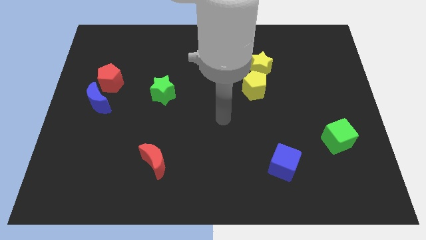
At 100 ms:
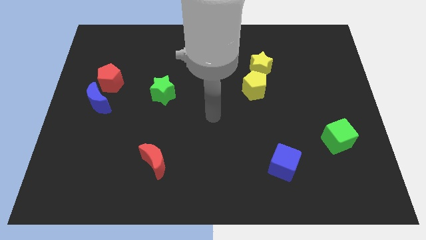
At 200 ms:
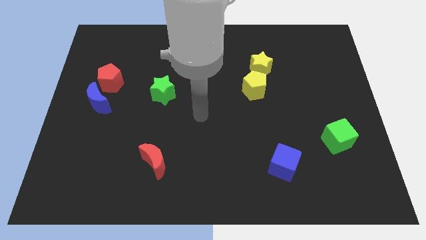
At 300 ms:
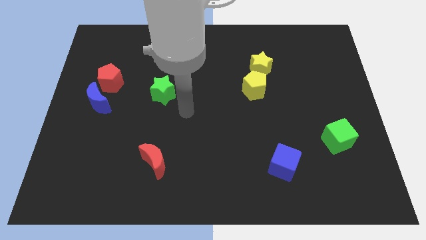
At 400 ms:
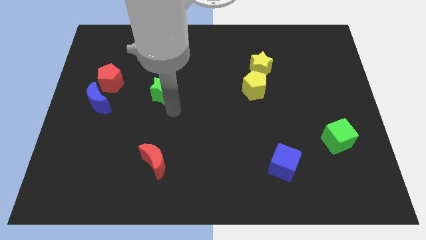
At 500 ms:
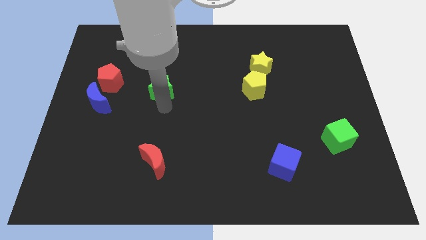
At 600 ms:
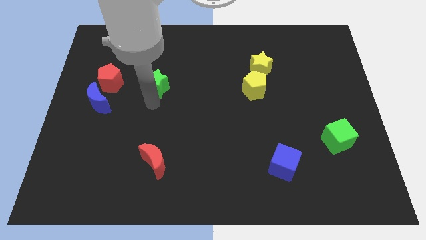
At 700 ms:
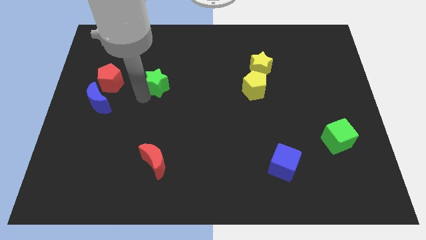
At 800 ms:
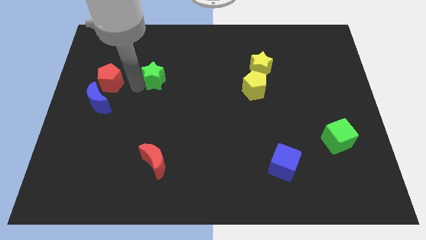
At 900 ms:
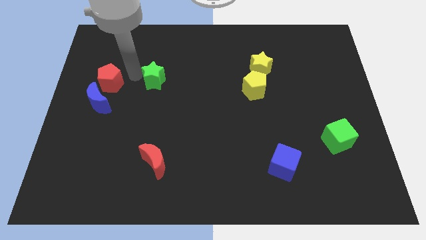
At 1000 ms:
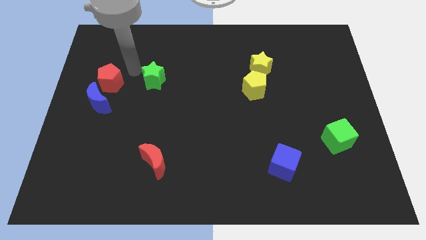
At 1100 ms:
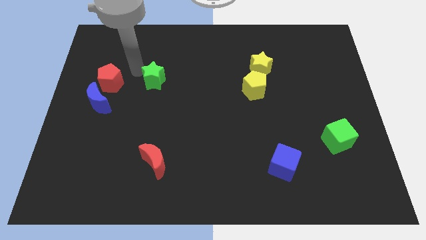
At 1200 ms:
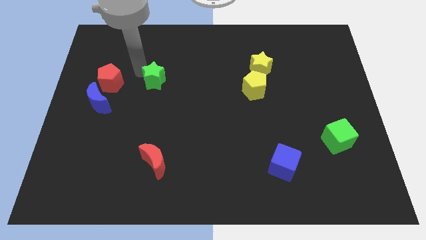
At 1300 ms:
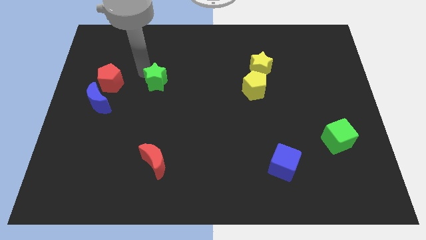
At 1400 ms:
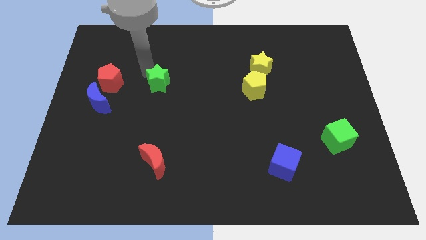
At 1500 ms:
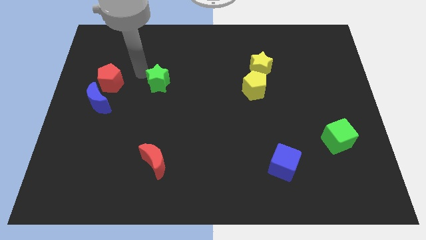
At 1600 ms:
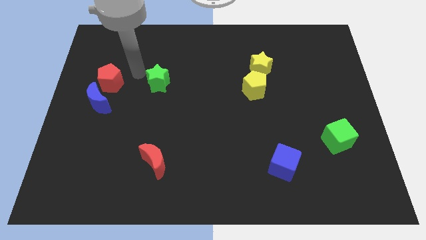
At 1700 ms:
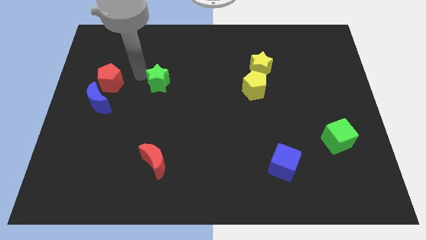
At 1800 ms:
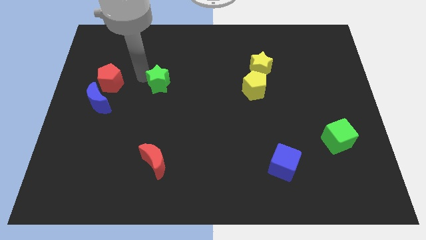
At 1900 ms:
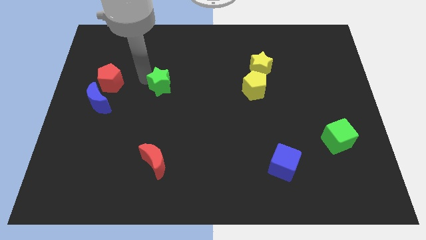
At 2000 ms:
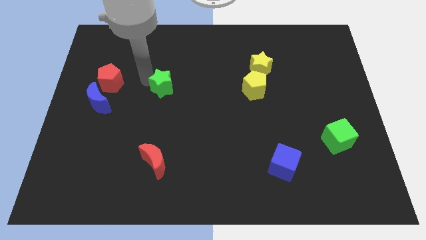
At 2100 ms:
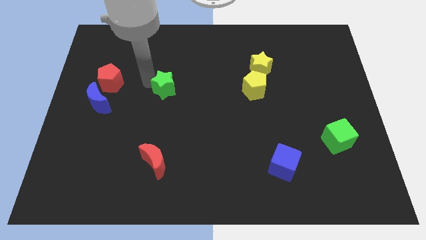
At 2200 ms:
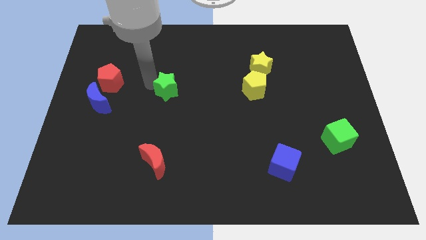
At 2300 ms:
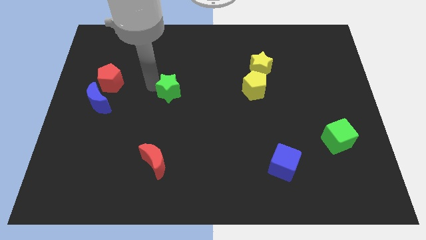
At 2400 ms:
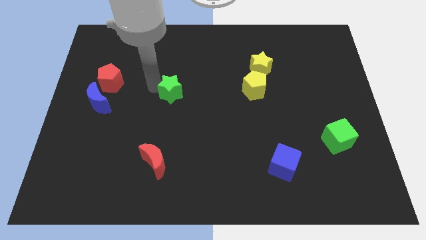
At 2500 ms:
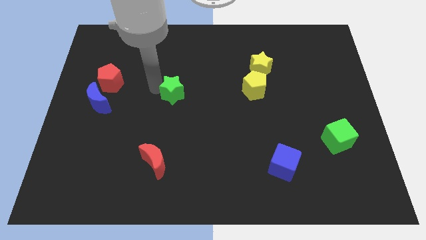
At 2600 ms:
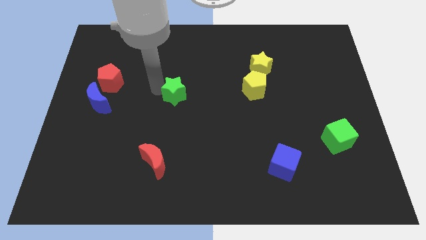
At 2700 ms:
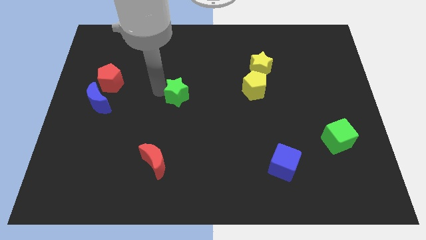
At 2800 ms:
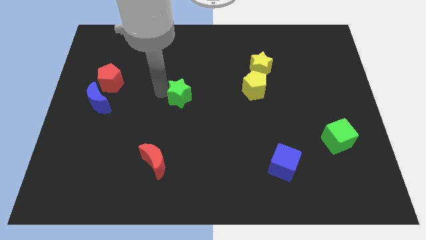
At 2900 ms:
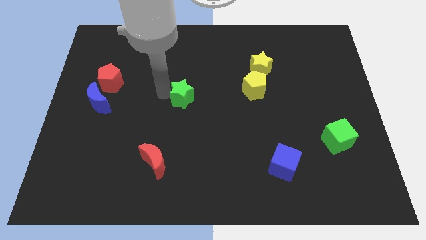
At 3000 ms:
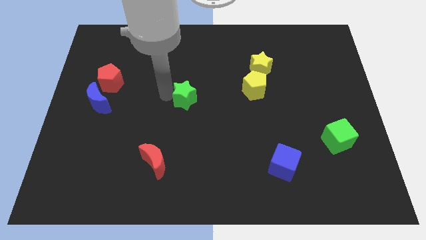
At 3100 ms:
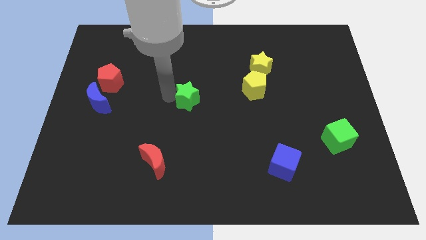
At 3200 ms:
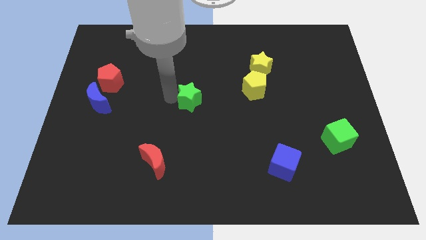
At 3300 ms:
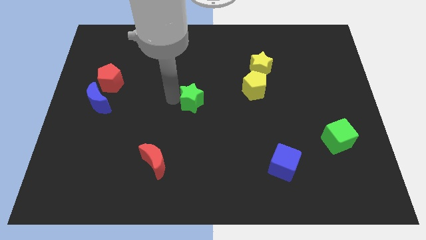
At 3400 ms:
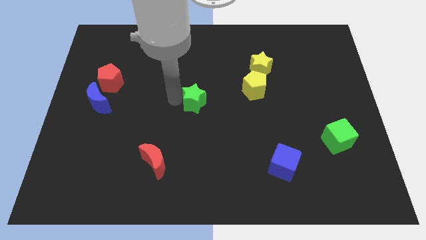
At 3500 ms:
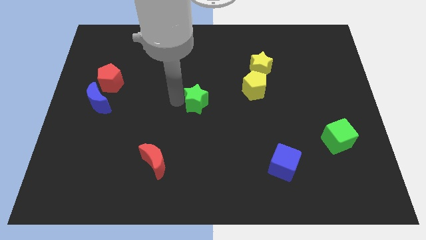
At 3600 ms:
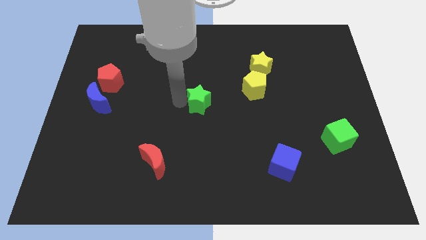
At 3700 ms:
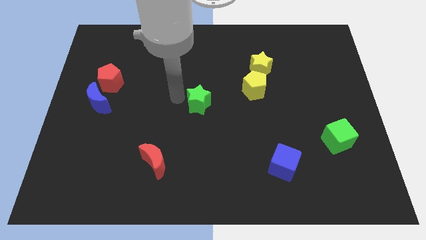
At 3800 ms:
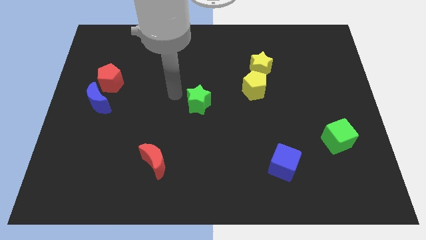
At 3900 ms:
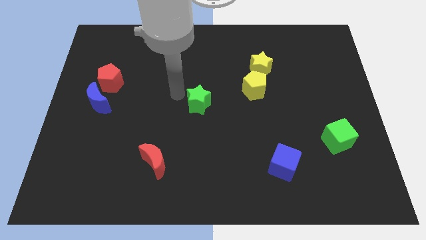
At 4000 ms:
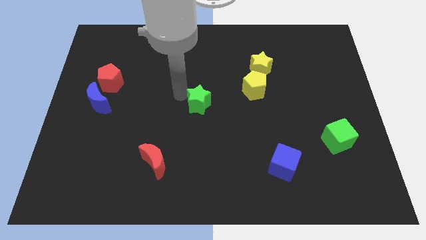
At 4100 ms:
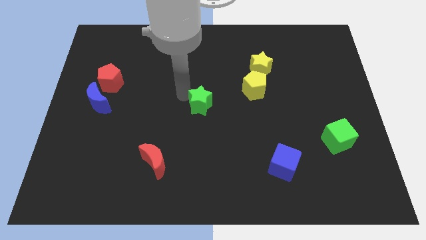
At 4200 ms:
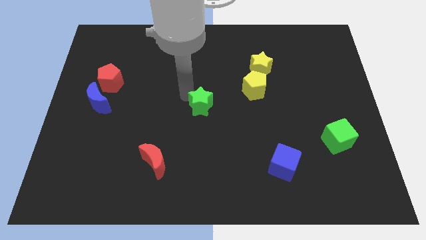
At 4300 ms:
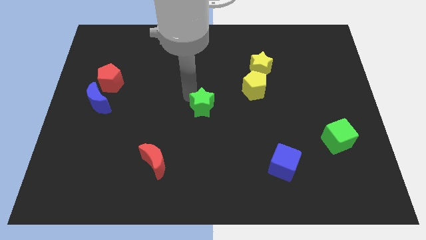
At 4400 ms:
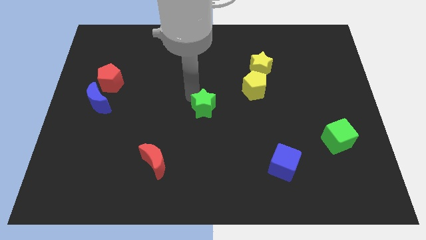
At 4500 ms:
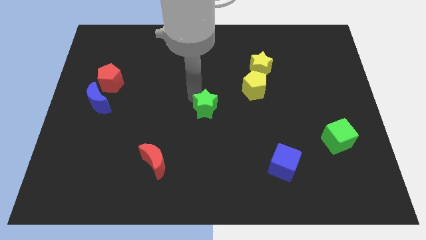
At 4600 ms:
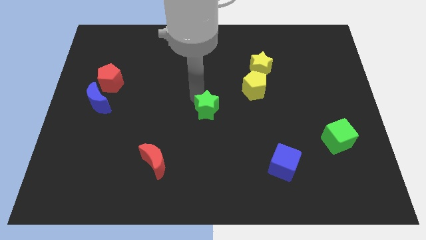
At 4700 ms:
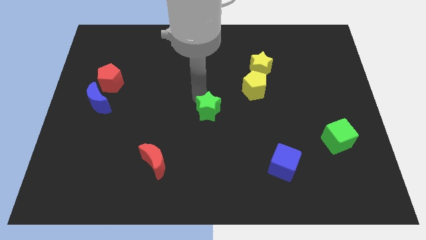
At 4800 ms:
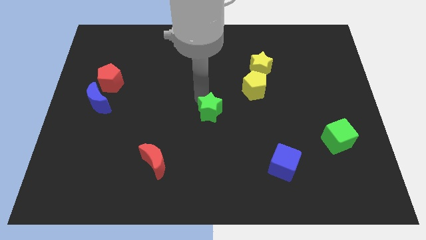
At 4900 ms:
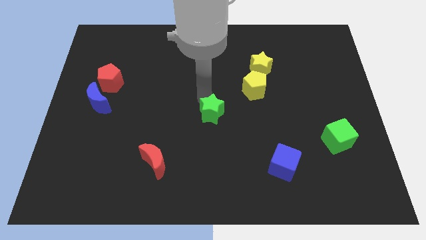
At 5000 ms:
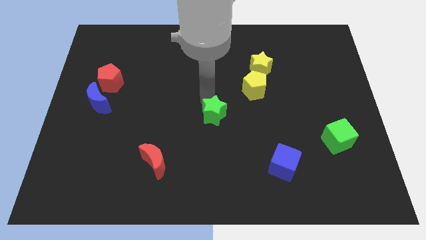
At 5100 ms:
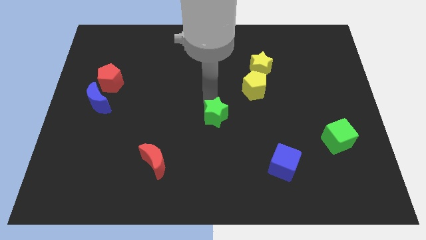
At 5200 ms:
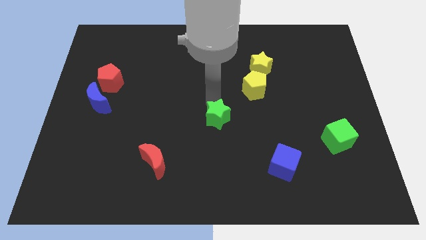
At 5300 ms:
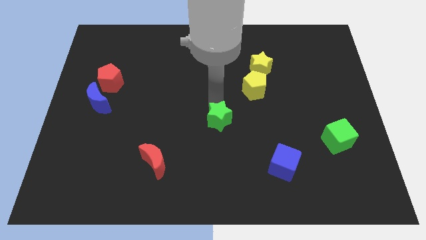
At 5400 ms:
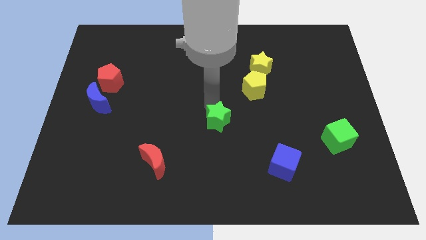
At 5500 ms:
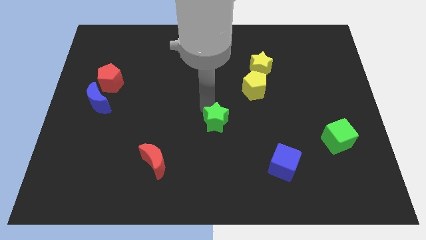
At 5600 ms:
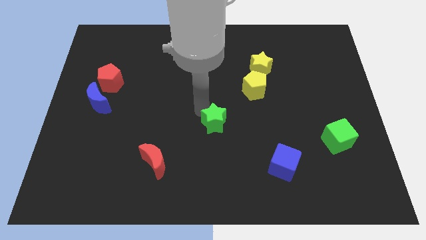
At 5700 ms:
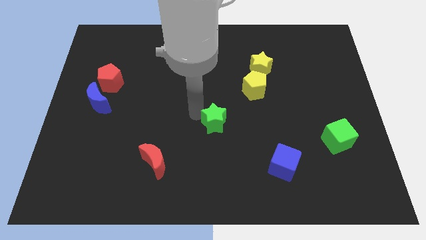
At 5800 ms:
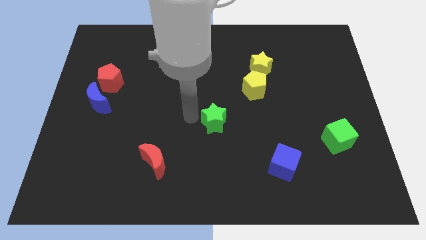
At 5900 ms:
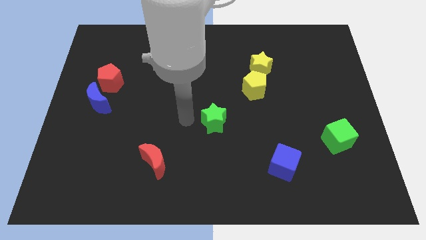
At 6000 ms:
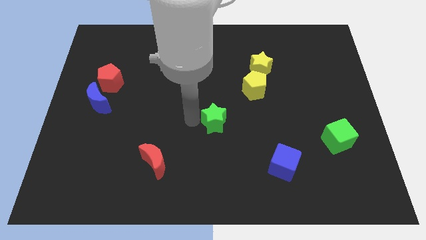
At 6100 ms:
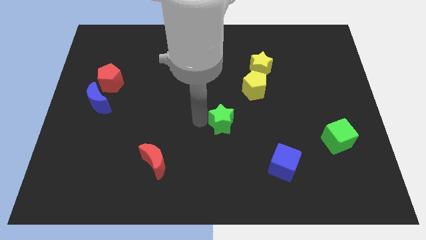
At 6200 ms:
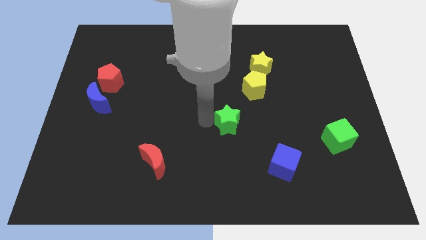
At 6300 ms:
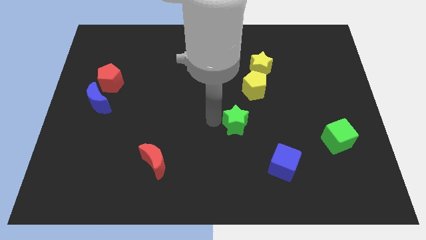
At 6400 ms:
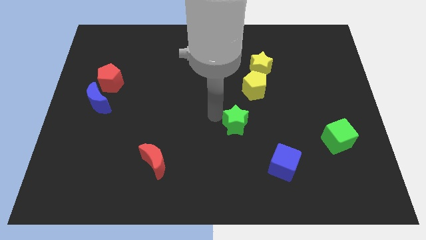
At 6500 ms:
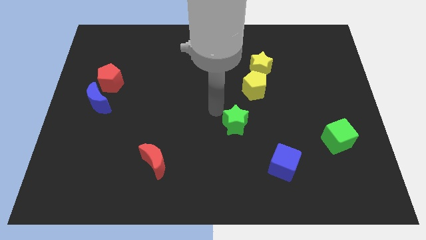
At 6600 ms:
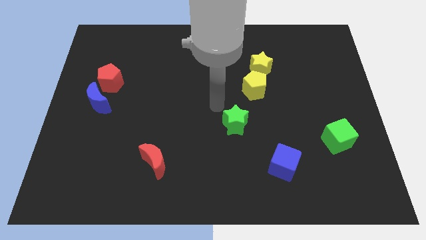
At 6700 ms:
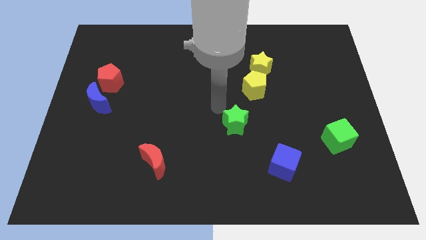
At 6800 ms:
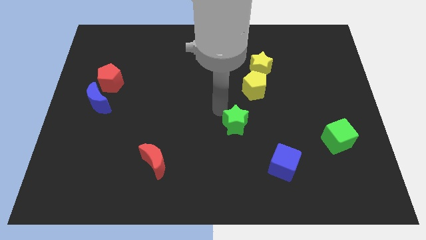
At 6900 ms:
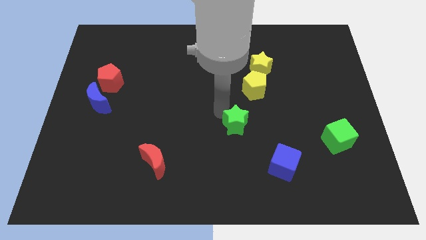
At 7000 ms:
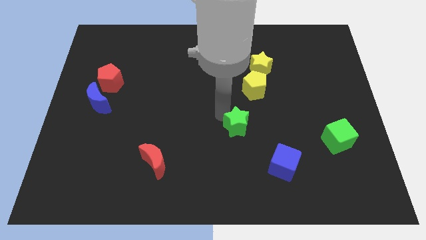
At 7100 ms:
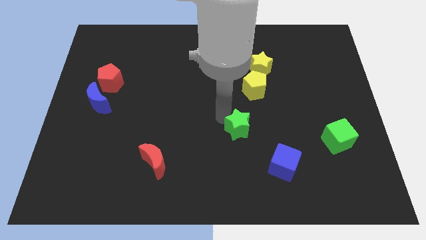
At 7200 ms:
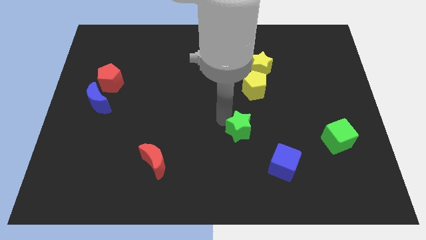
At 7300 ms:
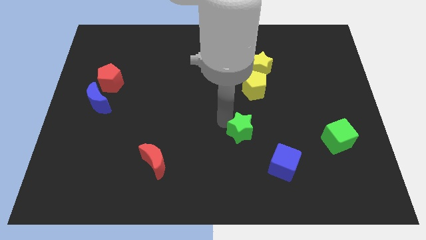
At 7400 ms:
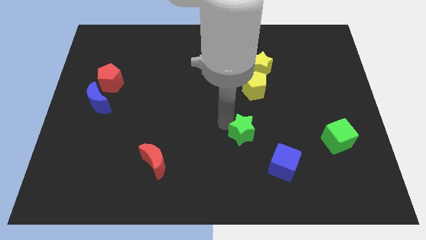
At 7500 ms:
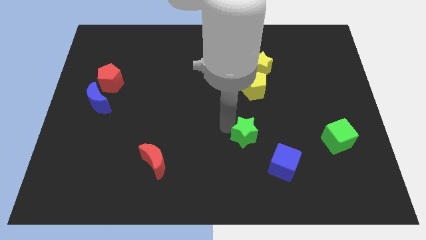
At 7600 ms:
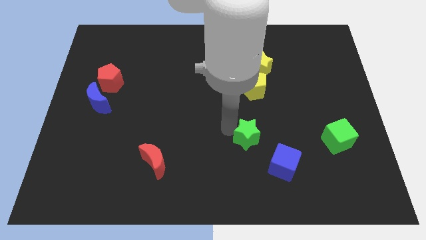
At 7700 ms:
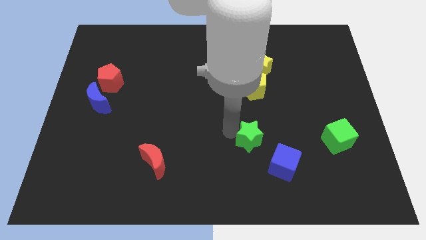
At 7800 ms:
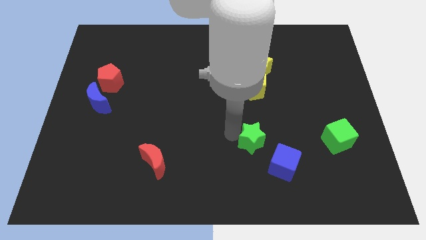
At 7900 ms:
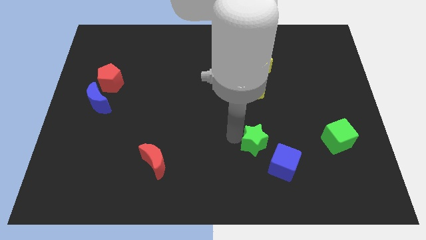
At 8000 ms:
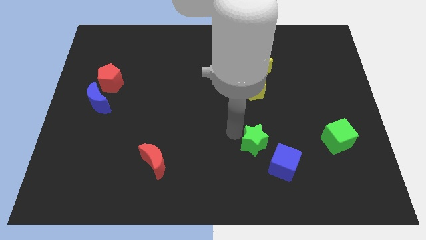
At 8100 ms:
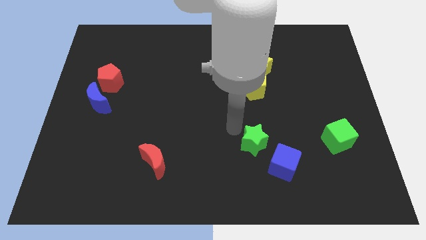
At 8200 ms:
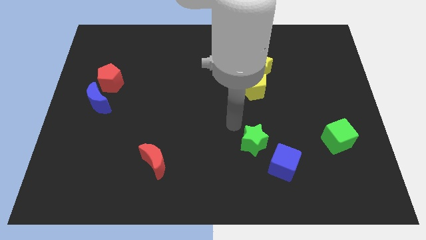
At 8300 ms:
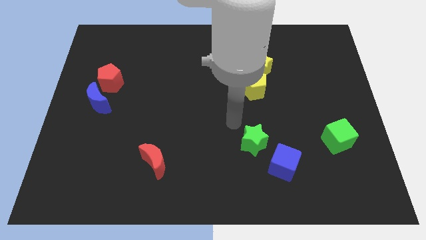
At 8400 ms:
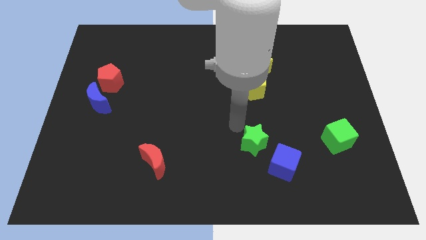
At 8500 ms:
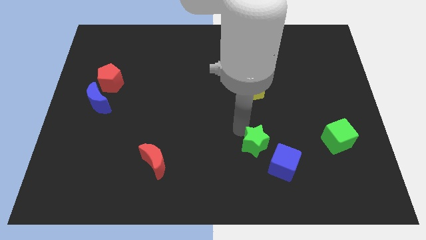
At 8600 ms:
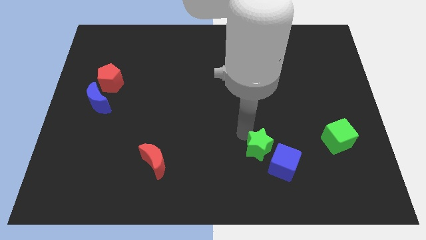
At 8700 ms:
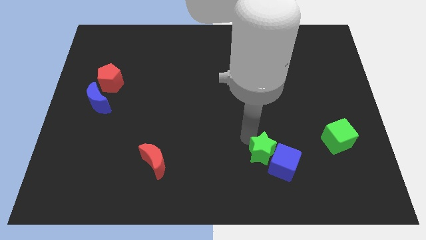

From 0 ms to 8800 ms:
slide the green star next to the blue cube
